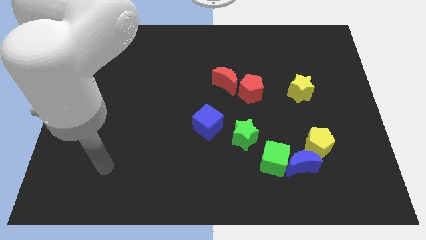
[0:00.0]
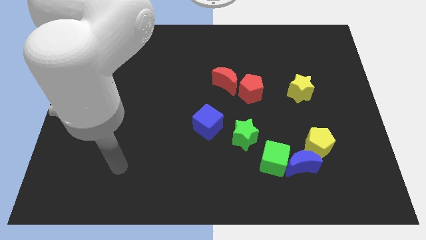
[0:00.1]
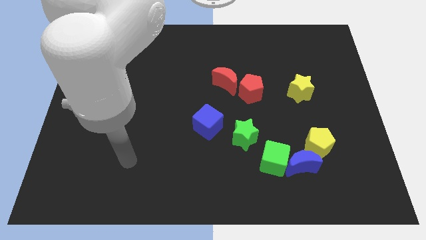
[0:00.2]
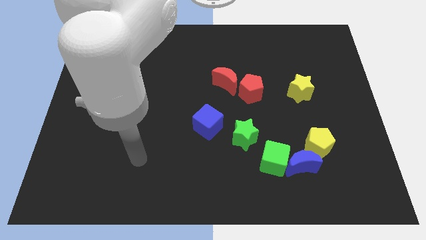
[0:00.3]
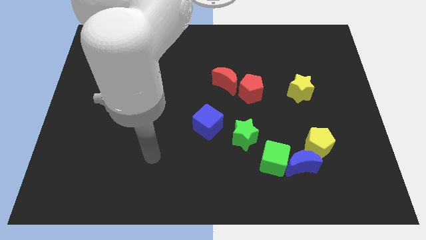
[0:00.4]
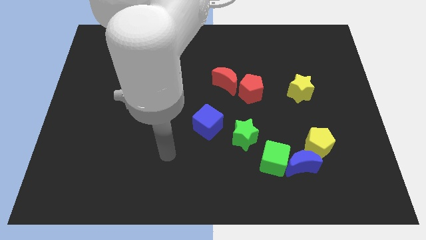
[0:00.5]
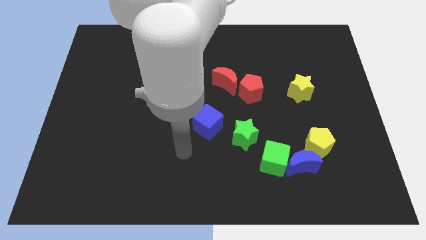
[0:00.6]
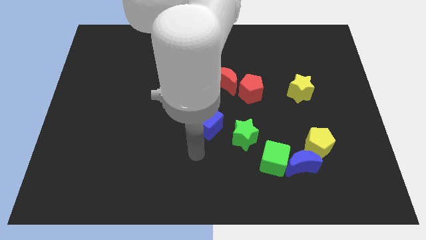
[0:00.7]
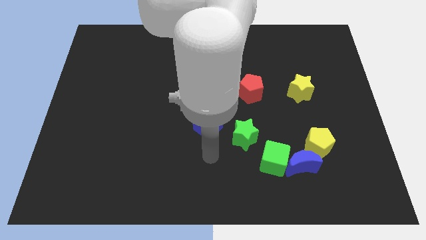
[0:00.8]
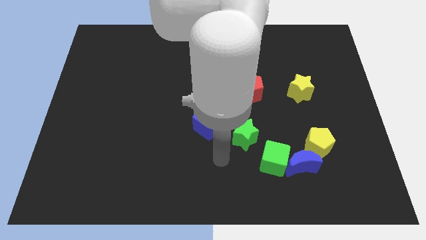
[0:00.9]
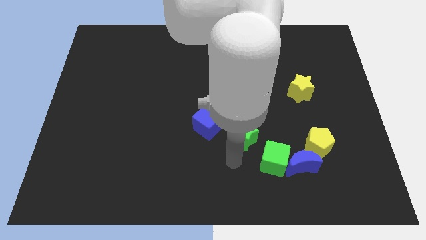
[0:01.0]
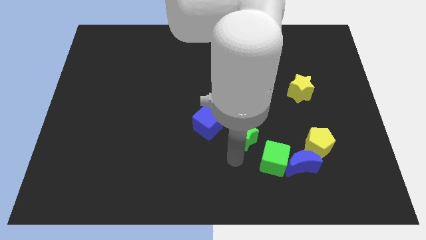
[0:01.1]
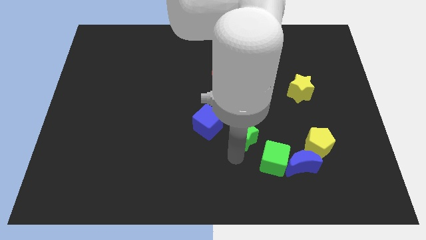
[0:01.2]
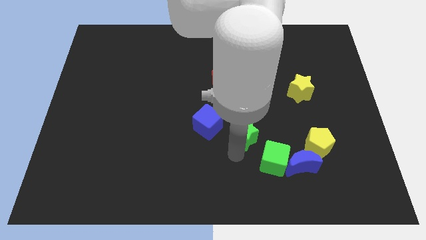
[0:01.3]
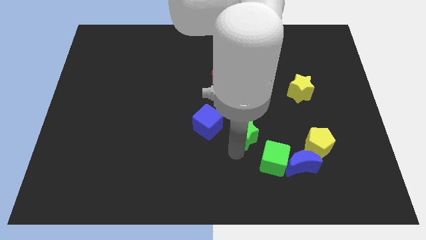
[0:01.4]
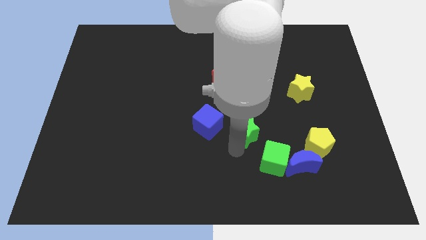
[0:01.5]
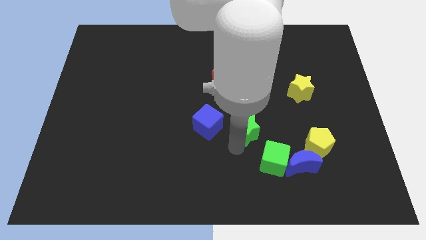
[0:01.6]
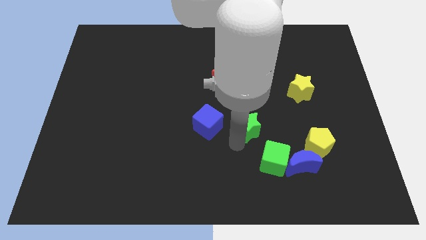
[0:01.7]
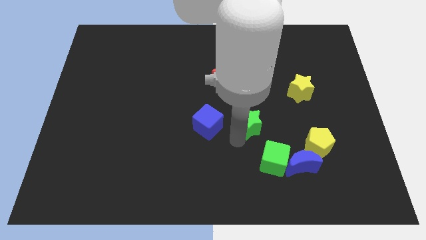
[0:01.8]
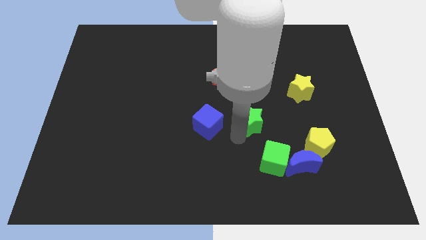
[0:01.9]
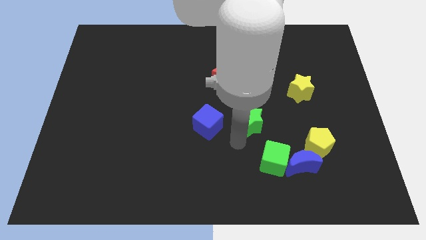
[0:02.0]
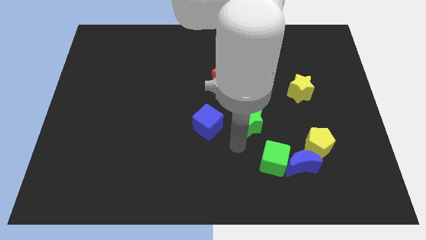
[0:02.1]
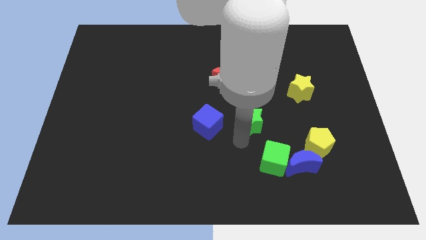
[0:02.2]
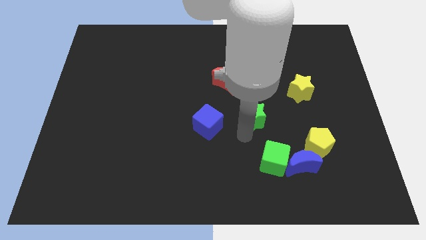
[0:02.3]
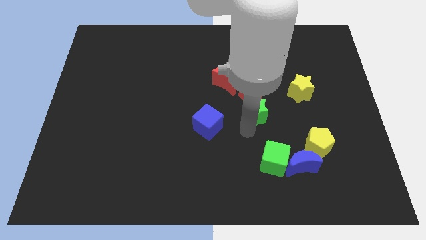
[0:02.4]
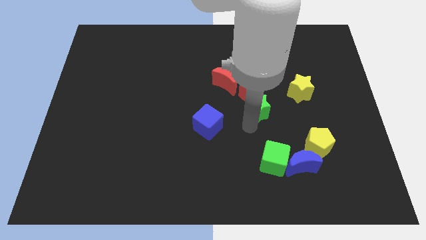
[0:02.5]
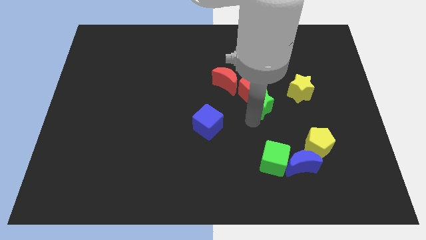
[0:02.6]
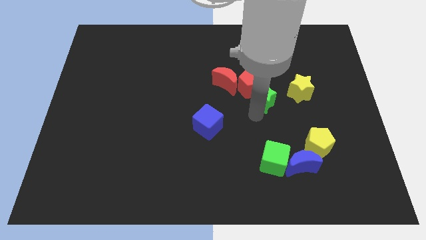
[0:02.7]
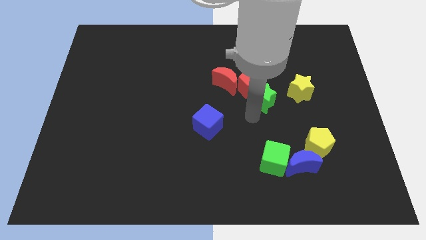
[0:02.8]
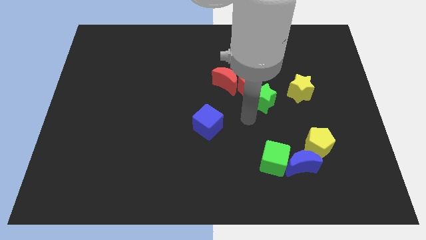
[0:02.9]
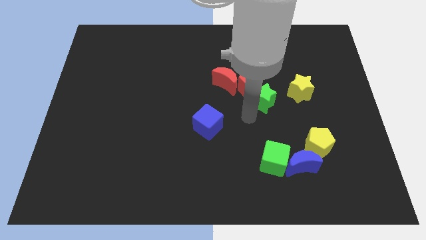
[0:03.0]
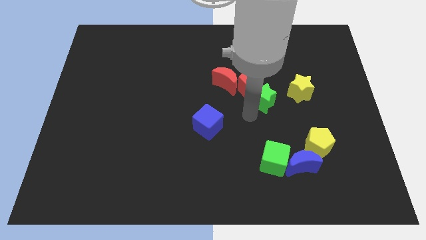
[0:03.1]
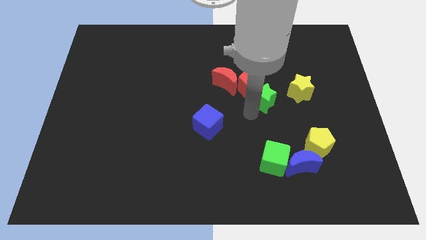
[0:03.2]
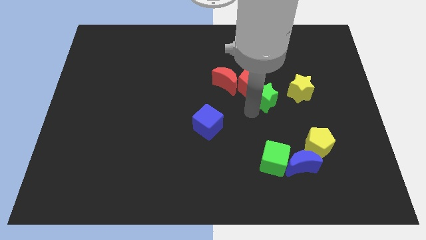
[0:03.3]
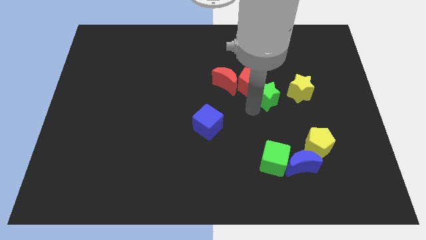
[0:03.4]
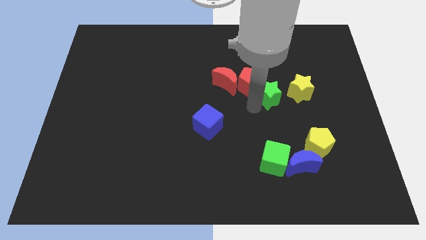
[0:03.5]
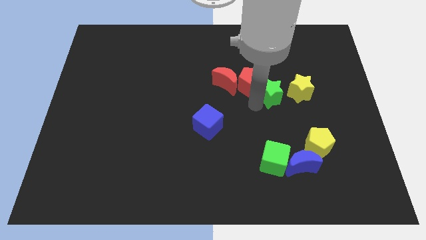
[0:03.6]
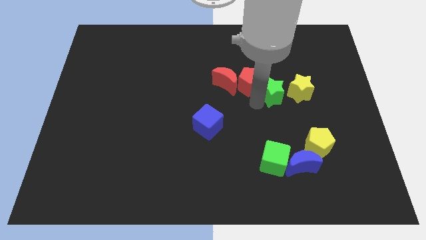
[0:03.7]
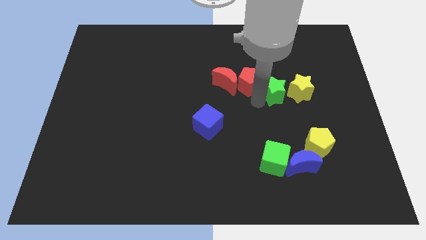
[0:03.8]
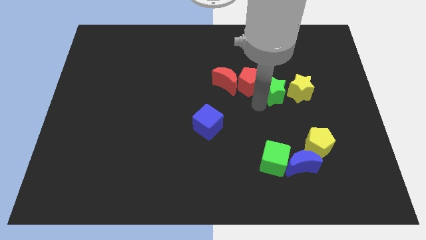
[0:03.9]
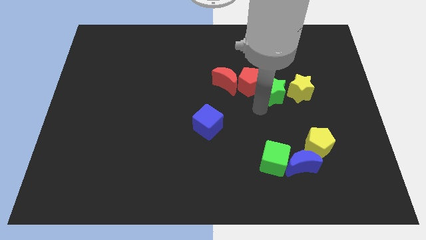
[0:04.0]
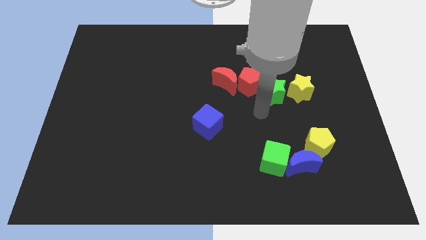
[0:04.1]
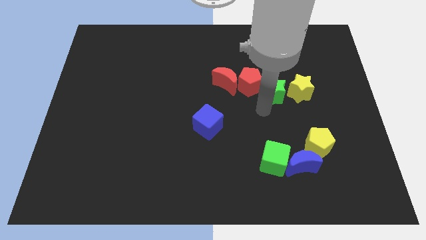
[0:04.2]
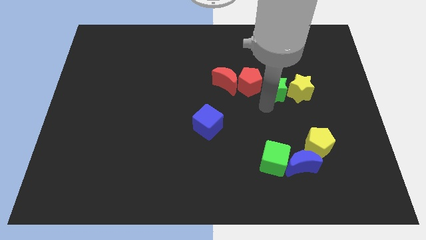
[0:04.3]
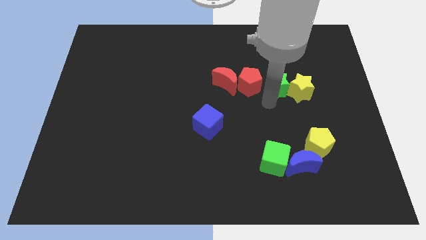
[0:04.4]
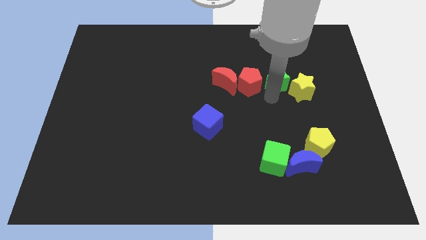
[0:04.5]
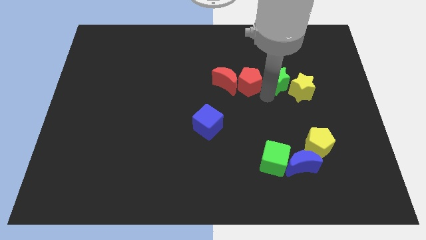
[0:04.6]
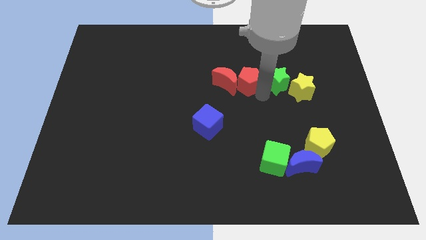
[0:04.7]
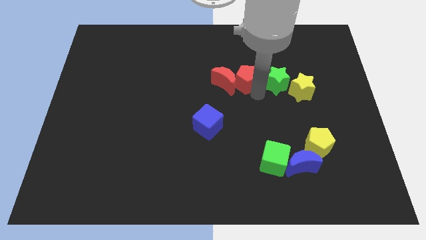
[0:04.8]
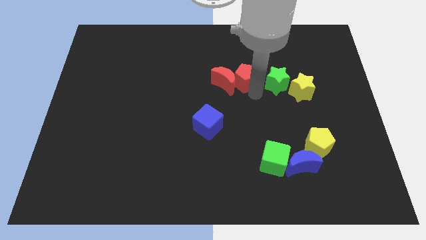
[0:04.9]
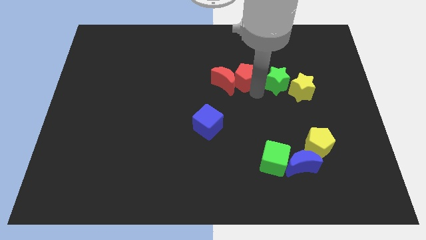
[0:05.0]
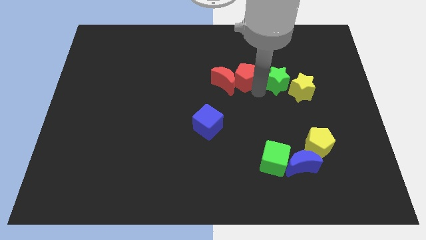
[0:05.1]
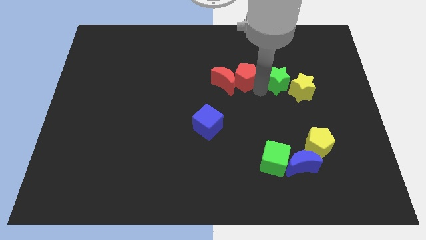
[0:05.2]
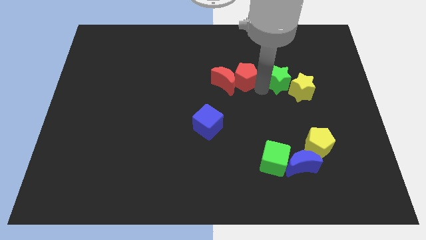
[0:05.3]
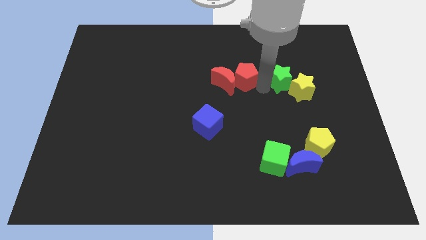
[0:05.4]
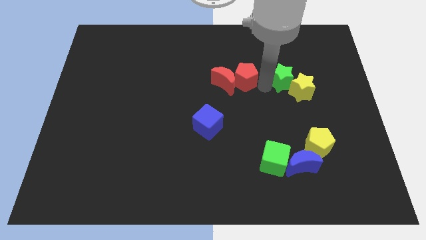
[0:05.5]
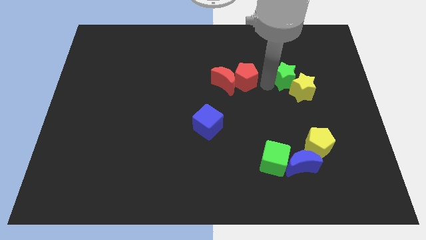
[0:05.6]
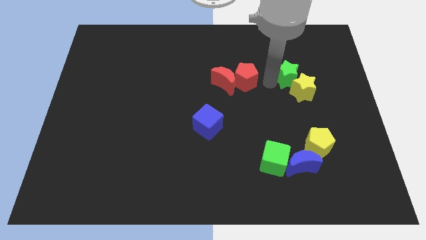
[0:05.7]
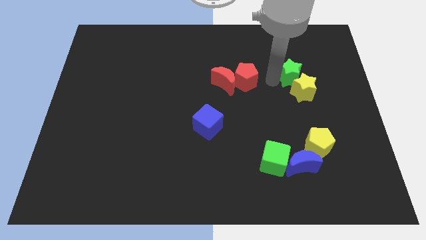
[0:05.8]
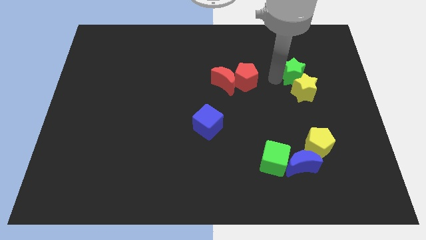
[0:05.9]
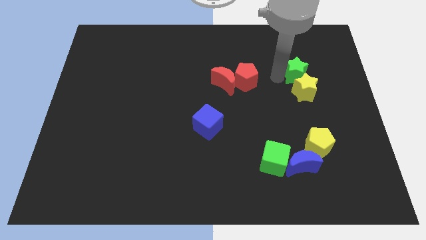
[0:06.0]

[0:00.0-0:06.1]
move the green star diagonally up and to the right of the yellow star

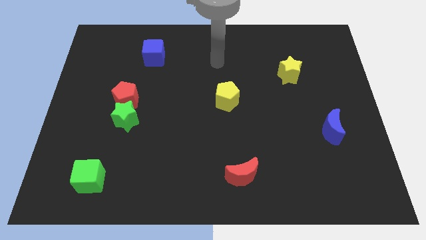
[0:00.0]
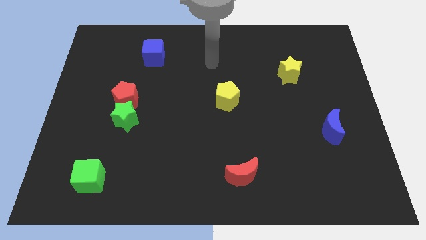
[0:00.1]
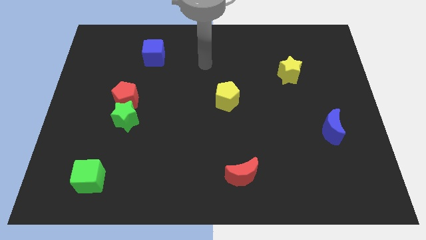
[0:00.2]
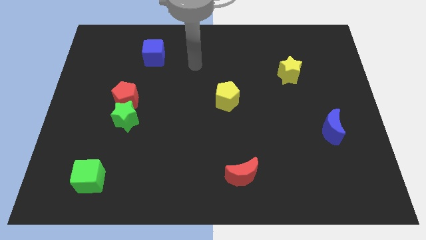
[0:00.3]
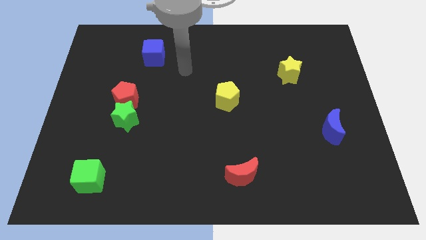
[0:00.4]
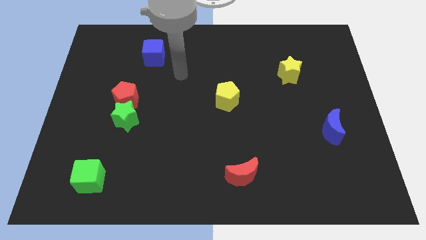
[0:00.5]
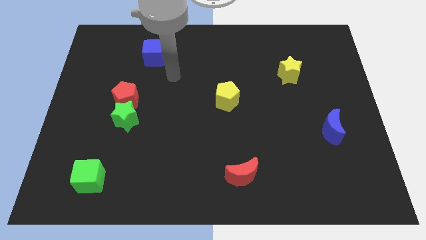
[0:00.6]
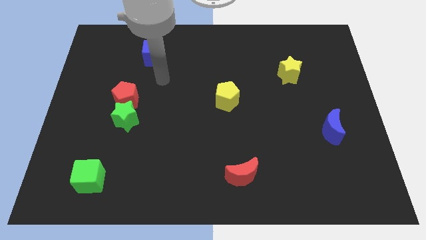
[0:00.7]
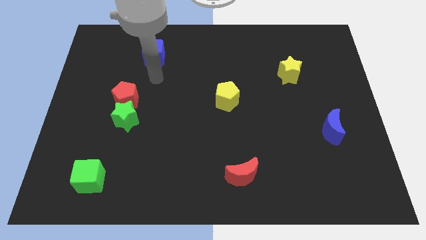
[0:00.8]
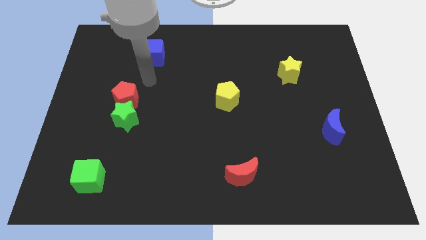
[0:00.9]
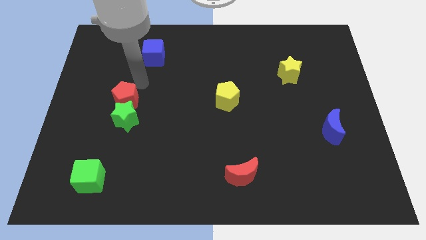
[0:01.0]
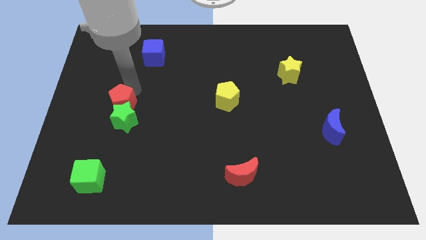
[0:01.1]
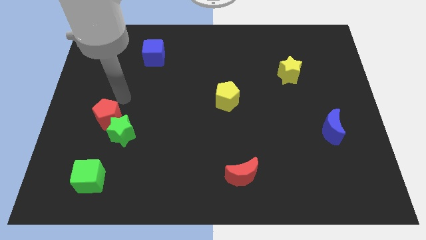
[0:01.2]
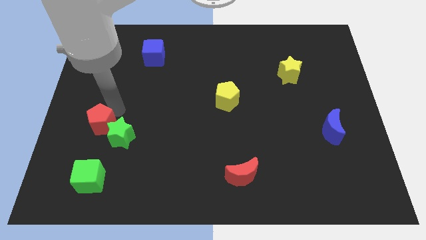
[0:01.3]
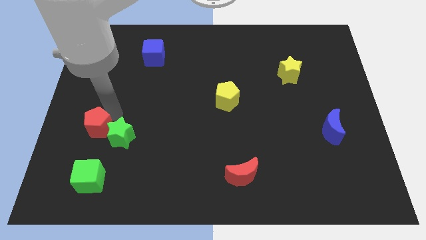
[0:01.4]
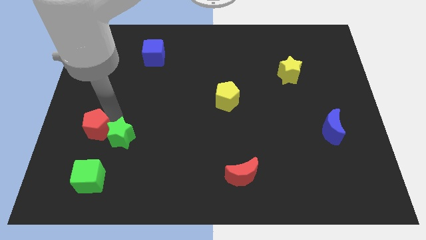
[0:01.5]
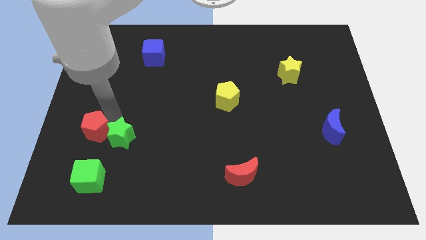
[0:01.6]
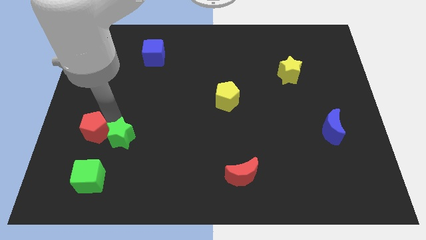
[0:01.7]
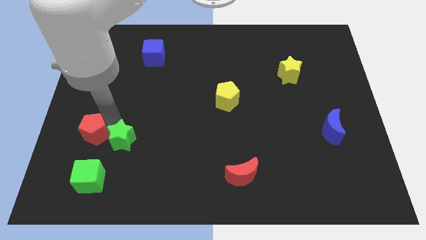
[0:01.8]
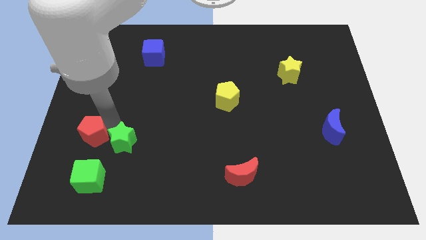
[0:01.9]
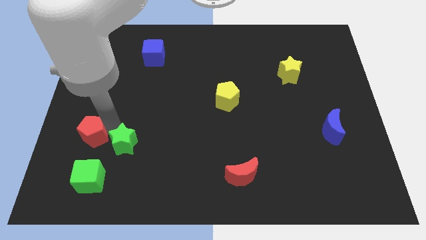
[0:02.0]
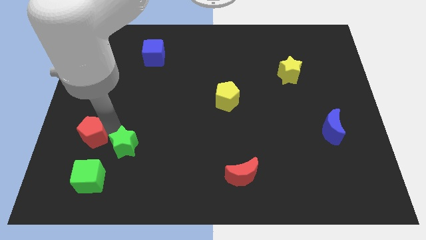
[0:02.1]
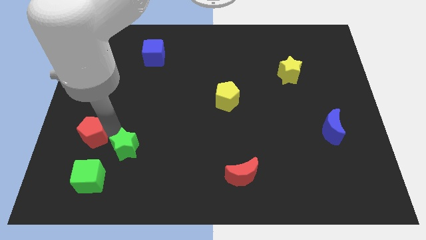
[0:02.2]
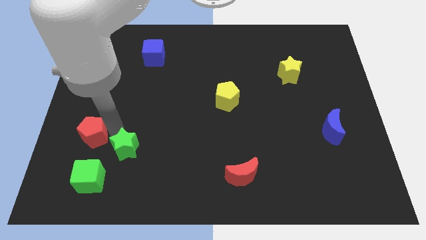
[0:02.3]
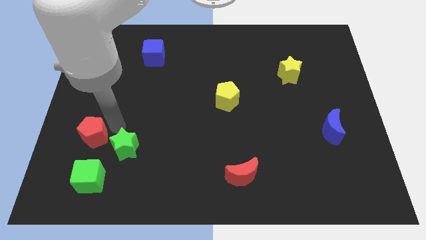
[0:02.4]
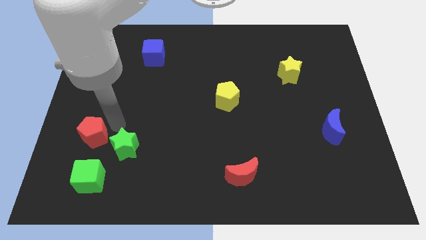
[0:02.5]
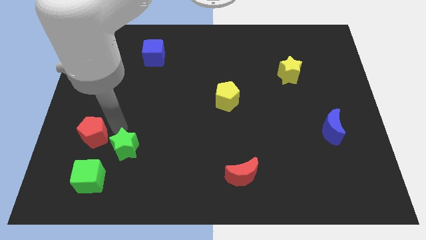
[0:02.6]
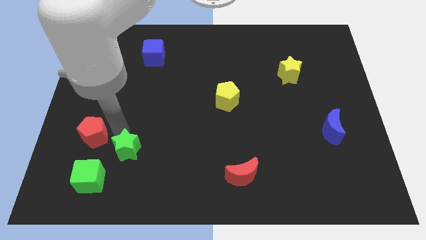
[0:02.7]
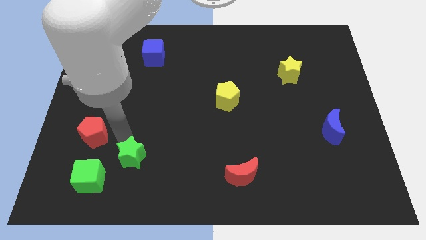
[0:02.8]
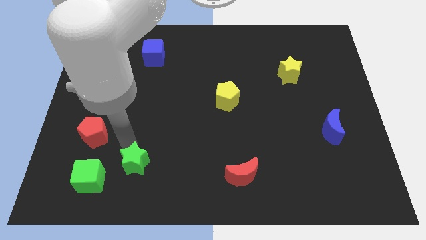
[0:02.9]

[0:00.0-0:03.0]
slide the green star to the right of the green cube
